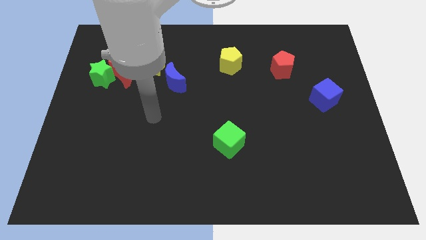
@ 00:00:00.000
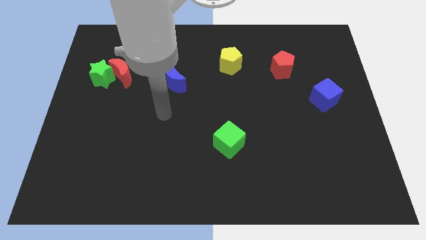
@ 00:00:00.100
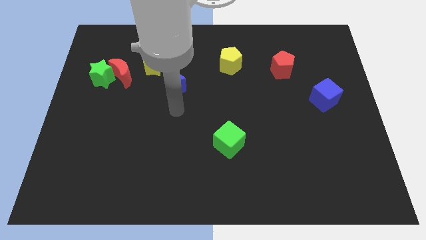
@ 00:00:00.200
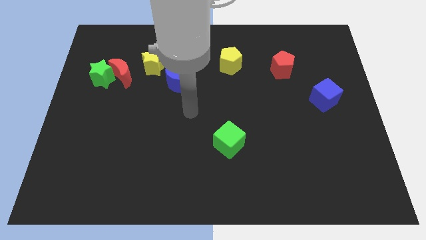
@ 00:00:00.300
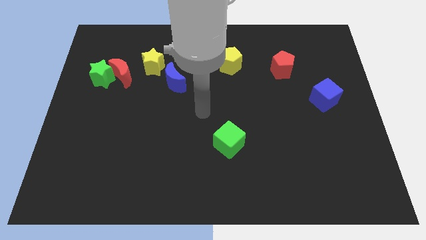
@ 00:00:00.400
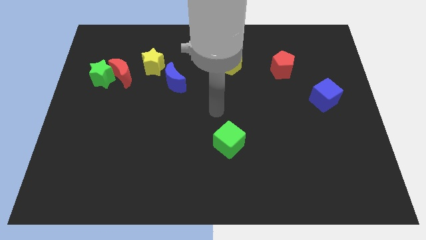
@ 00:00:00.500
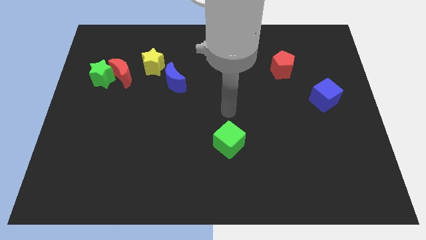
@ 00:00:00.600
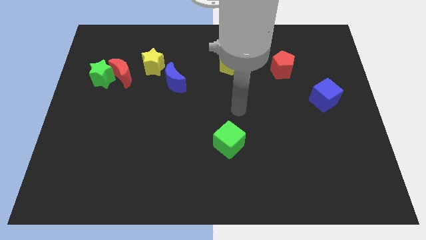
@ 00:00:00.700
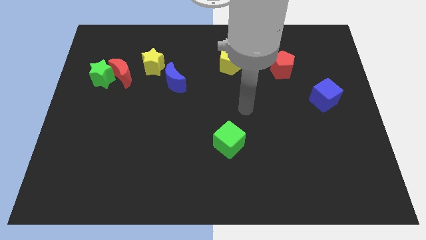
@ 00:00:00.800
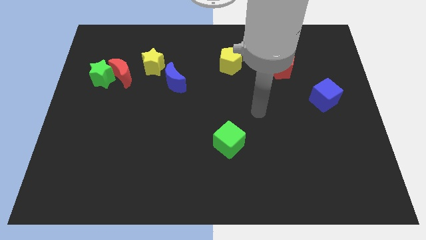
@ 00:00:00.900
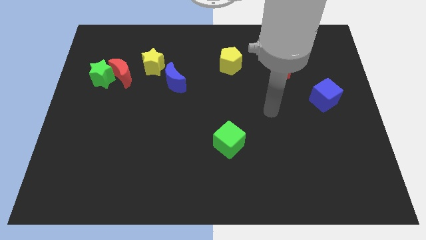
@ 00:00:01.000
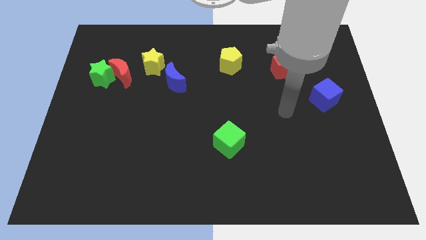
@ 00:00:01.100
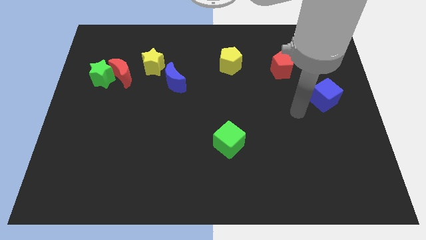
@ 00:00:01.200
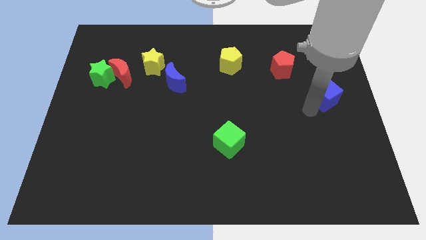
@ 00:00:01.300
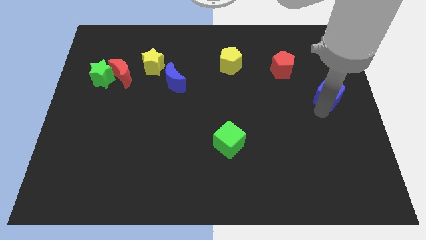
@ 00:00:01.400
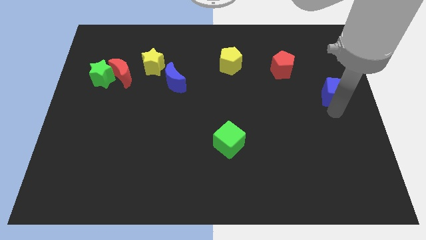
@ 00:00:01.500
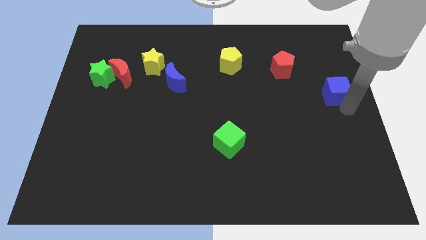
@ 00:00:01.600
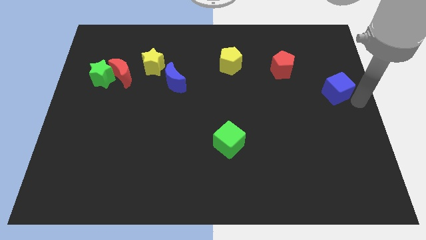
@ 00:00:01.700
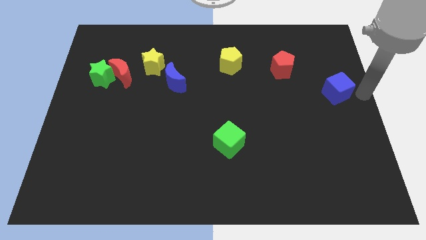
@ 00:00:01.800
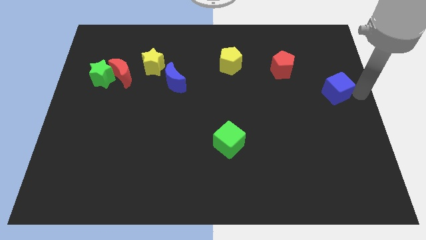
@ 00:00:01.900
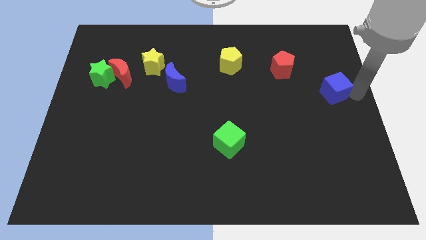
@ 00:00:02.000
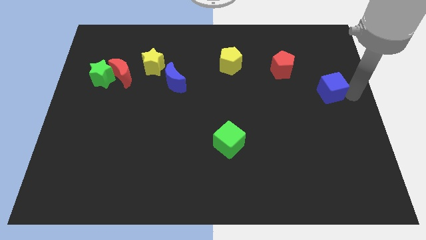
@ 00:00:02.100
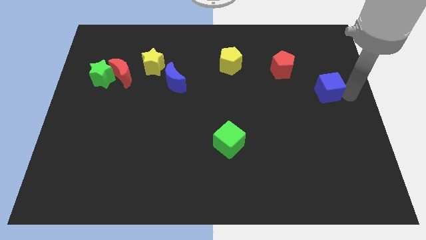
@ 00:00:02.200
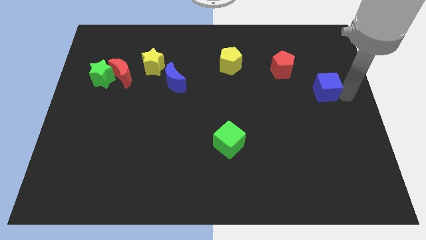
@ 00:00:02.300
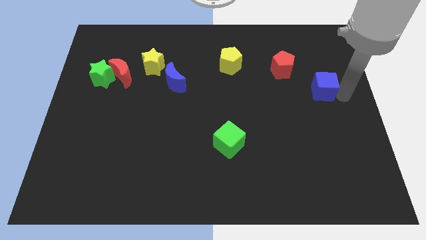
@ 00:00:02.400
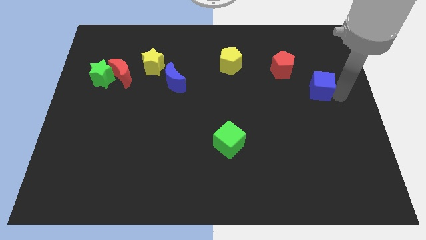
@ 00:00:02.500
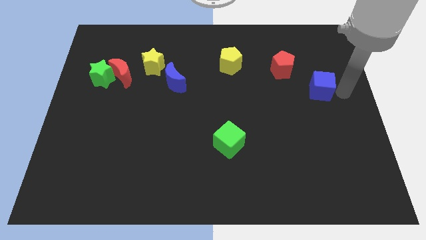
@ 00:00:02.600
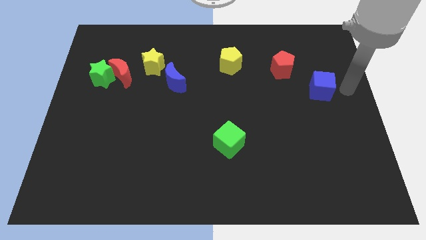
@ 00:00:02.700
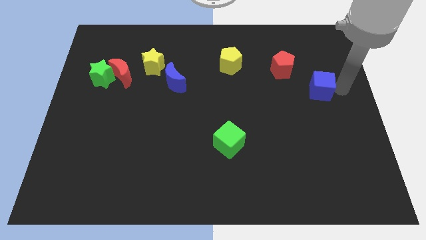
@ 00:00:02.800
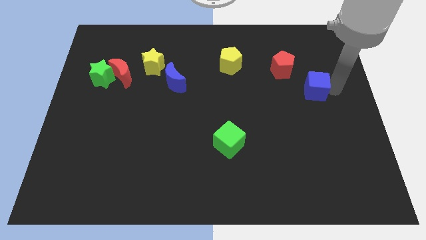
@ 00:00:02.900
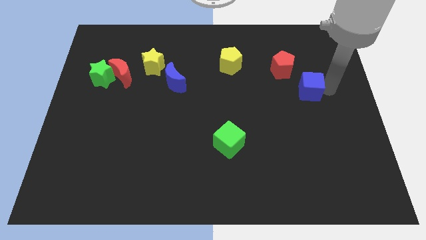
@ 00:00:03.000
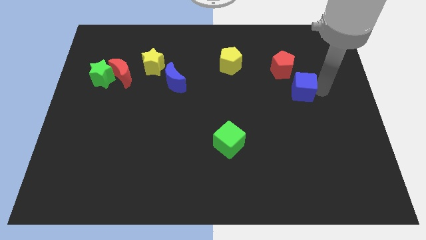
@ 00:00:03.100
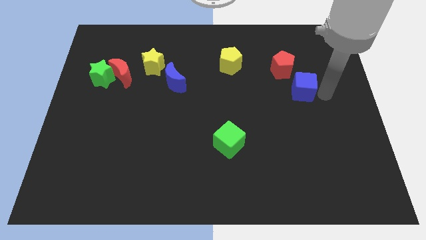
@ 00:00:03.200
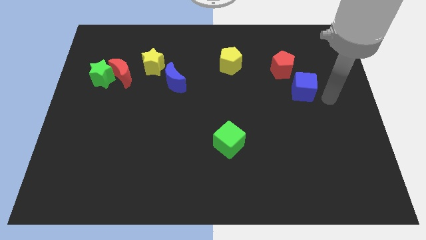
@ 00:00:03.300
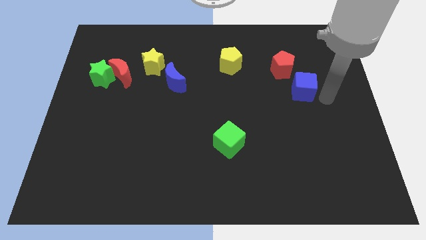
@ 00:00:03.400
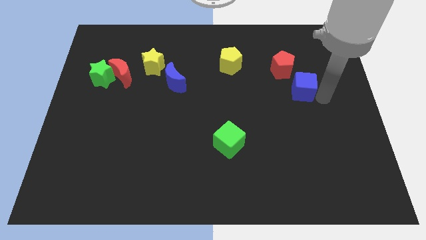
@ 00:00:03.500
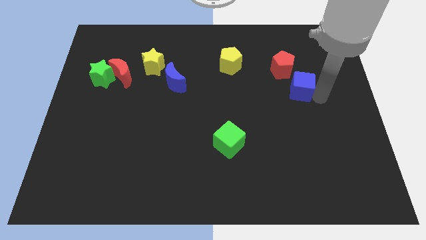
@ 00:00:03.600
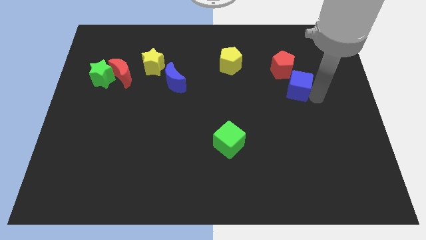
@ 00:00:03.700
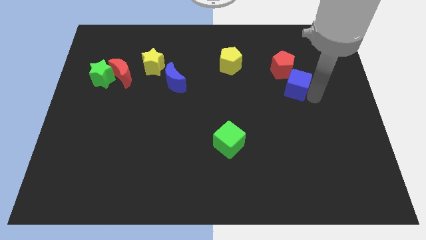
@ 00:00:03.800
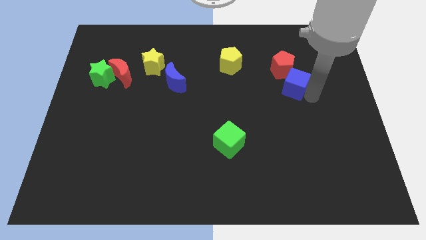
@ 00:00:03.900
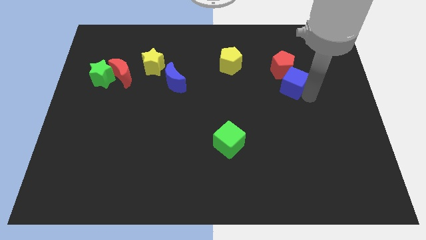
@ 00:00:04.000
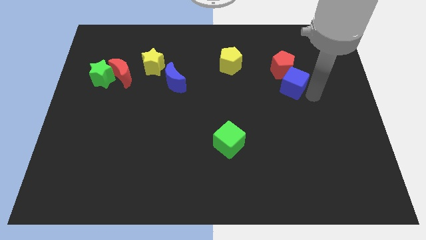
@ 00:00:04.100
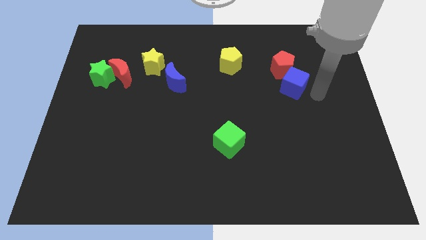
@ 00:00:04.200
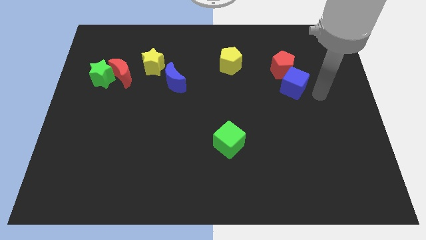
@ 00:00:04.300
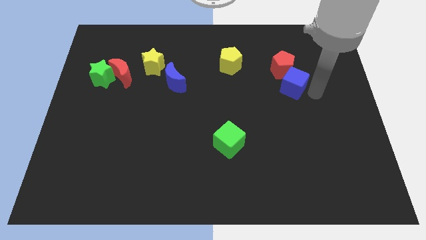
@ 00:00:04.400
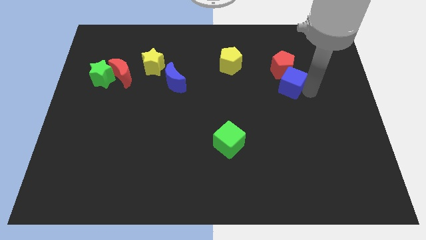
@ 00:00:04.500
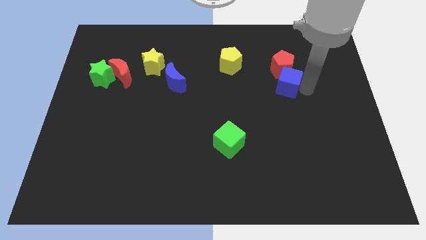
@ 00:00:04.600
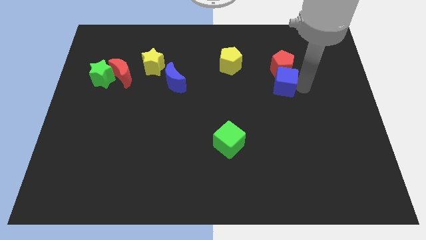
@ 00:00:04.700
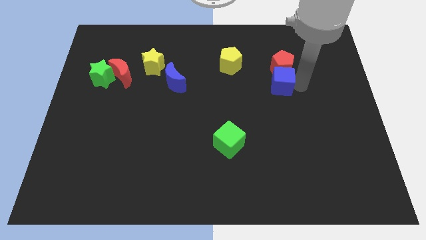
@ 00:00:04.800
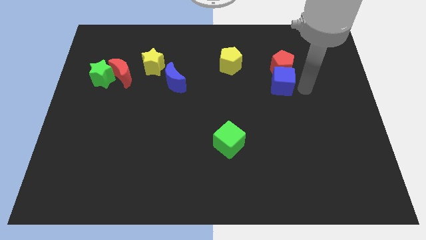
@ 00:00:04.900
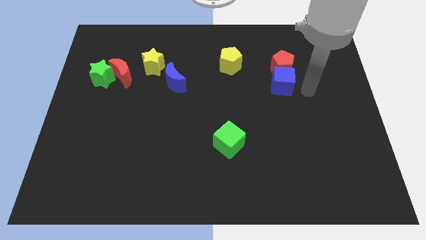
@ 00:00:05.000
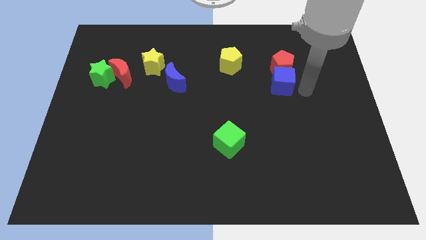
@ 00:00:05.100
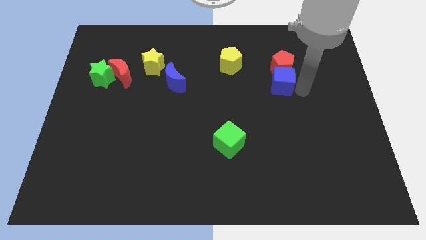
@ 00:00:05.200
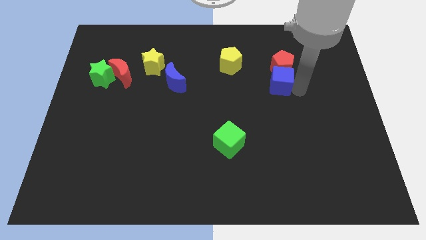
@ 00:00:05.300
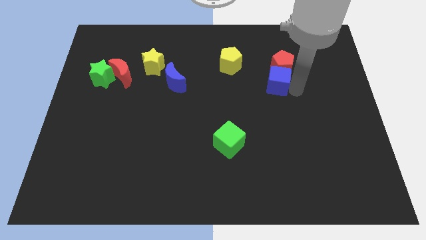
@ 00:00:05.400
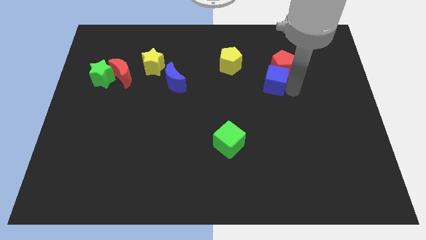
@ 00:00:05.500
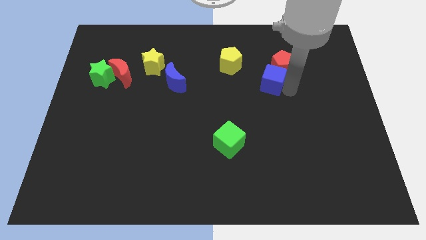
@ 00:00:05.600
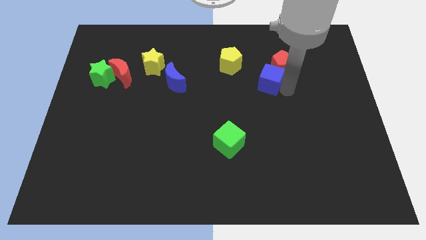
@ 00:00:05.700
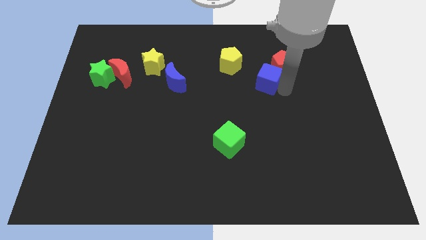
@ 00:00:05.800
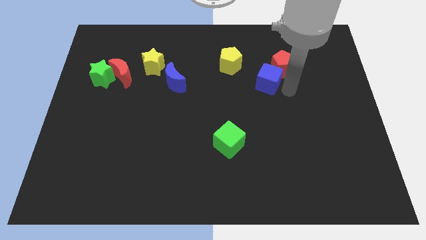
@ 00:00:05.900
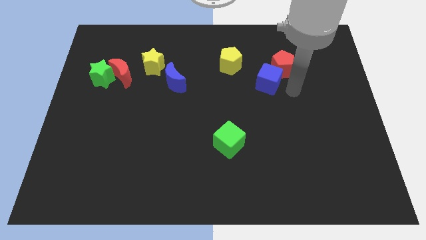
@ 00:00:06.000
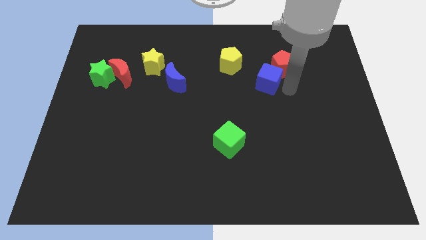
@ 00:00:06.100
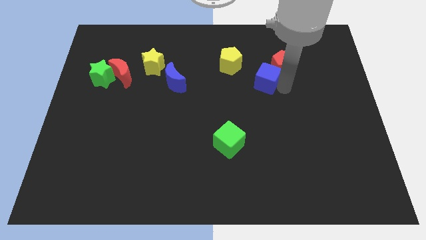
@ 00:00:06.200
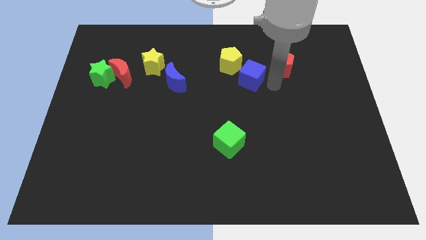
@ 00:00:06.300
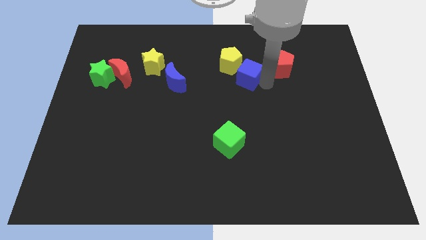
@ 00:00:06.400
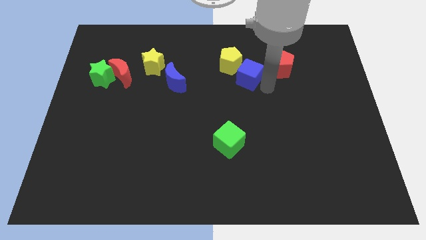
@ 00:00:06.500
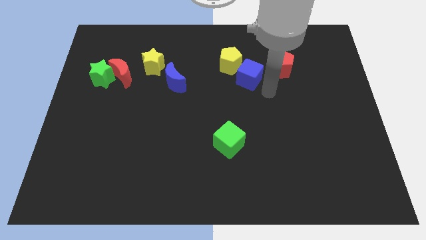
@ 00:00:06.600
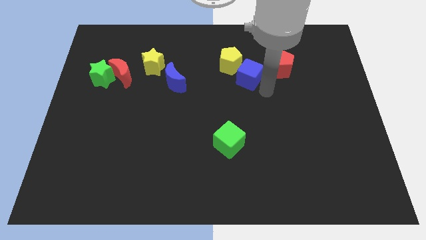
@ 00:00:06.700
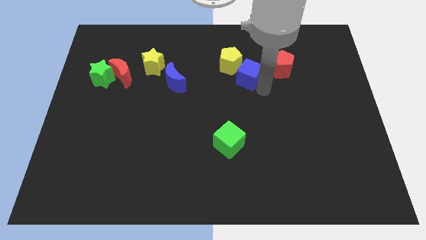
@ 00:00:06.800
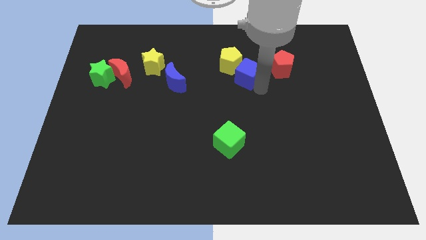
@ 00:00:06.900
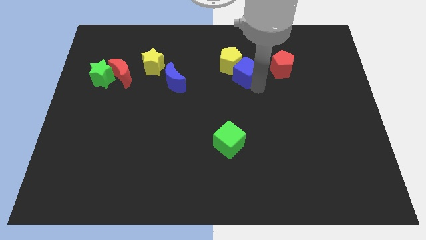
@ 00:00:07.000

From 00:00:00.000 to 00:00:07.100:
put the blue cube to the yellow pentagon

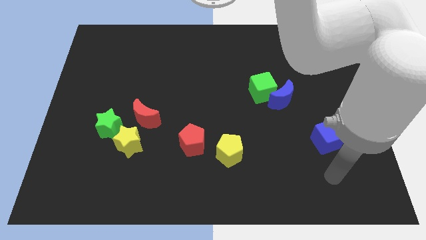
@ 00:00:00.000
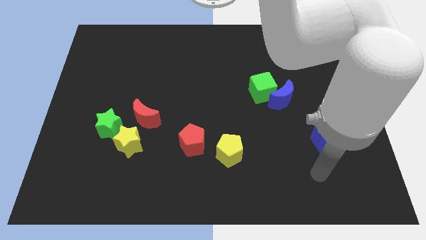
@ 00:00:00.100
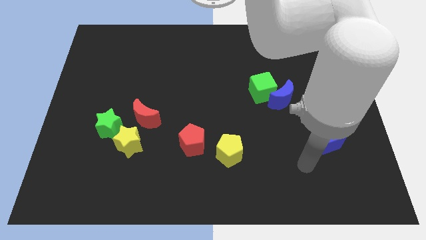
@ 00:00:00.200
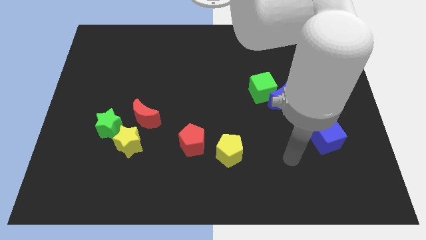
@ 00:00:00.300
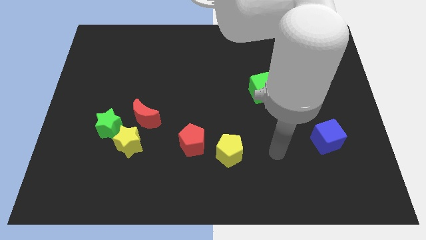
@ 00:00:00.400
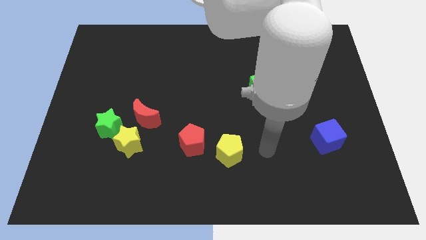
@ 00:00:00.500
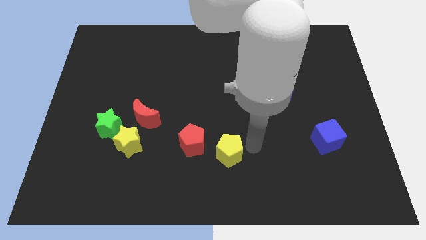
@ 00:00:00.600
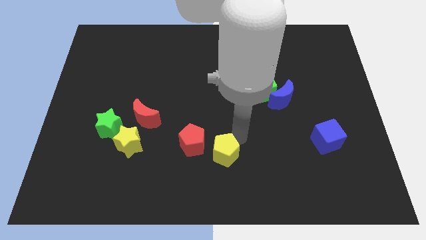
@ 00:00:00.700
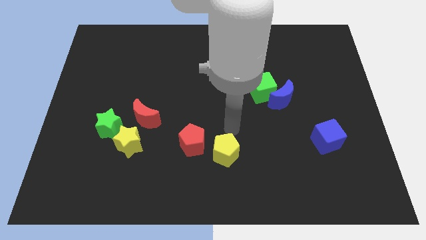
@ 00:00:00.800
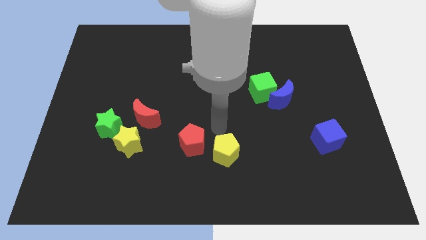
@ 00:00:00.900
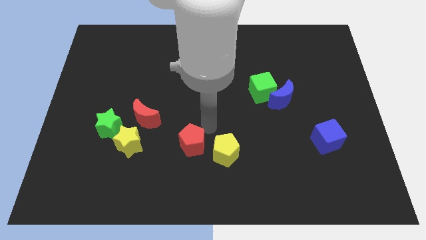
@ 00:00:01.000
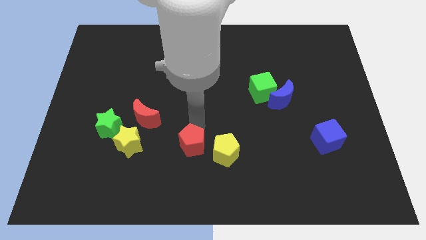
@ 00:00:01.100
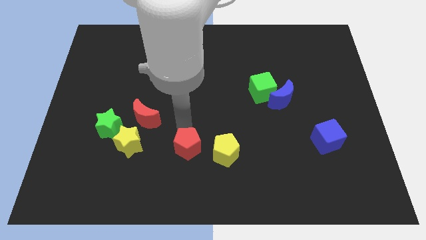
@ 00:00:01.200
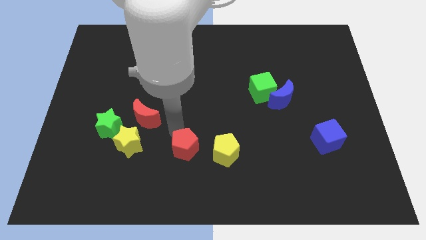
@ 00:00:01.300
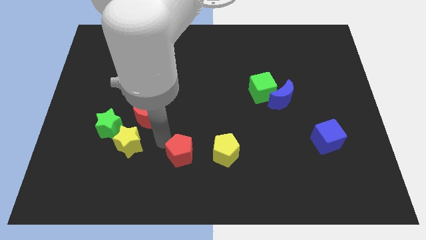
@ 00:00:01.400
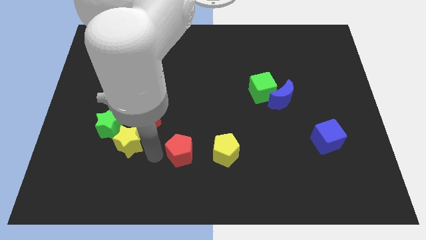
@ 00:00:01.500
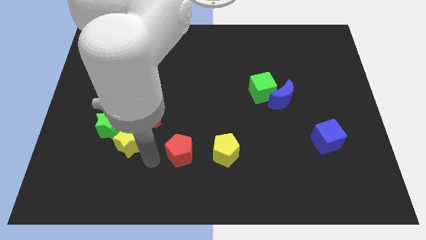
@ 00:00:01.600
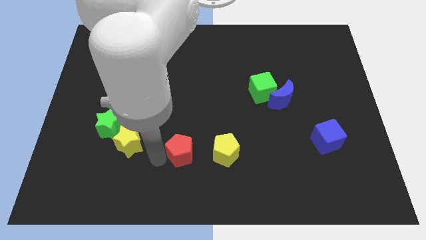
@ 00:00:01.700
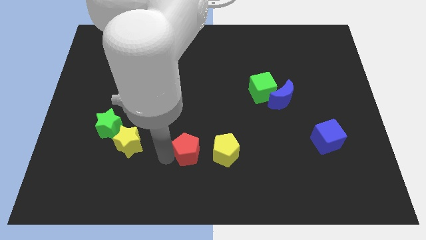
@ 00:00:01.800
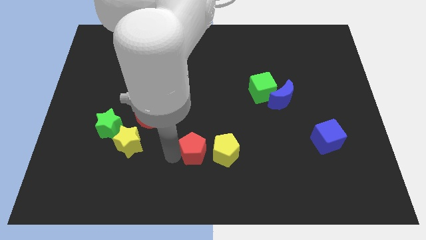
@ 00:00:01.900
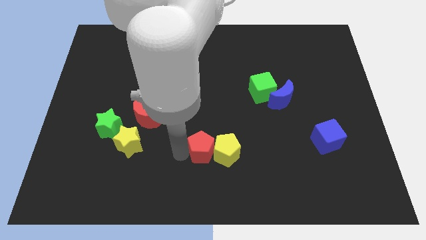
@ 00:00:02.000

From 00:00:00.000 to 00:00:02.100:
move the red pentagon to the yellow pentagon
